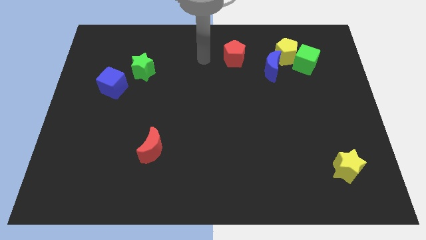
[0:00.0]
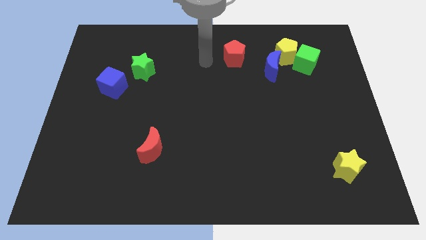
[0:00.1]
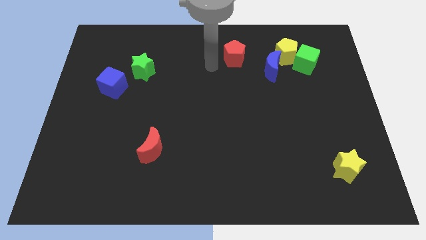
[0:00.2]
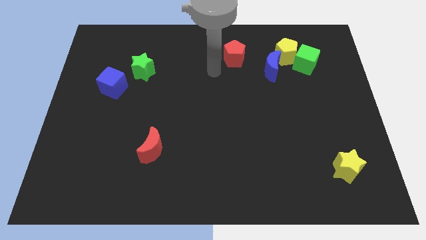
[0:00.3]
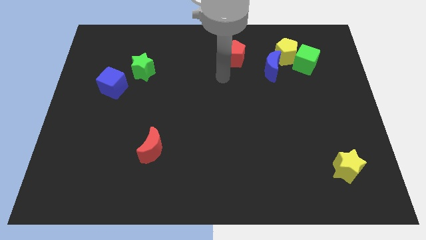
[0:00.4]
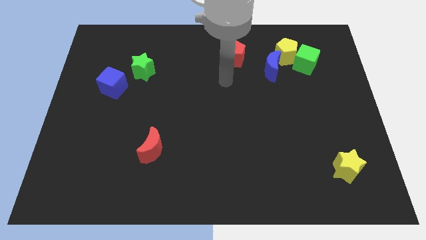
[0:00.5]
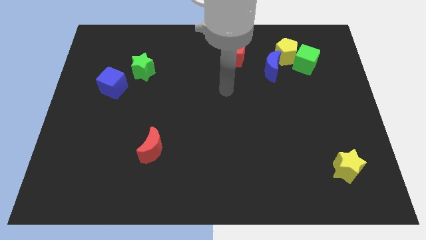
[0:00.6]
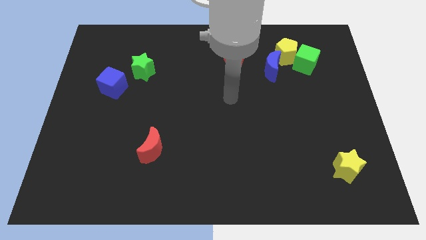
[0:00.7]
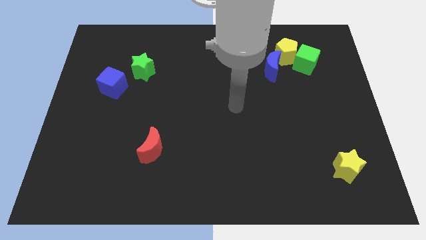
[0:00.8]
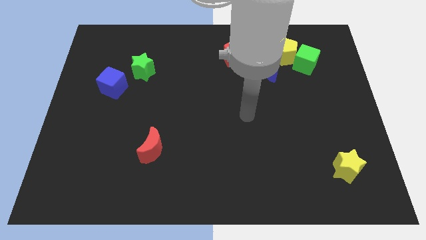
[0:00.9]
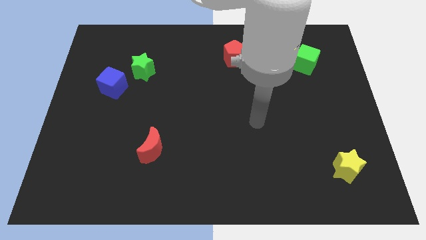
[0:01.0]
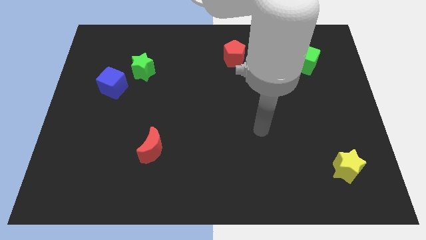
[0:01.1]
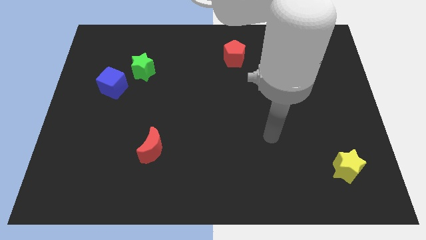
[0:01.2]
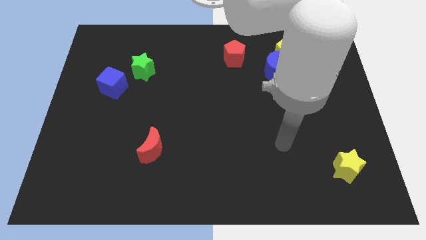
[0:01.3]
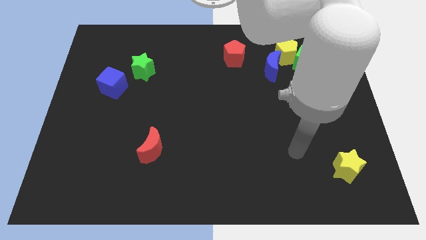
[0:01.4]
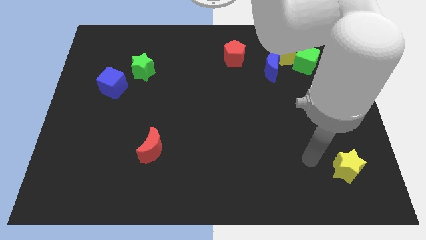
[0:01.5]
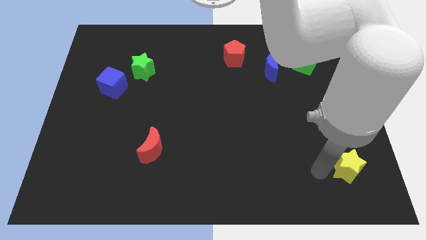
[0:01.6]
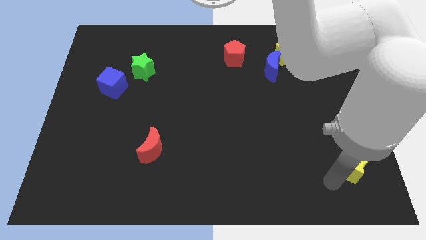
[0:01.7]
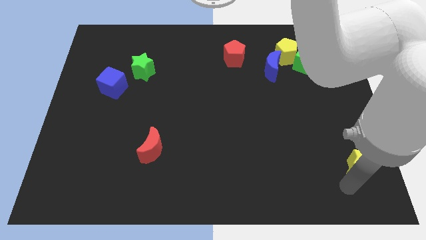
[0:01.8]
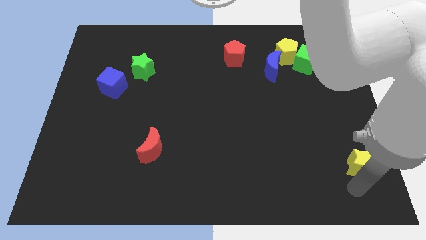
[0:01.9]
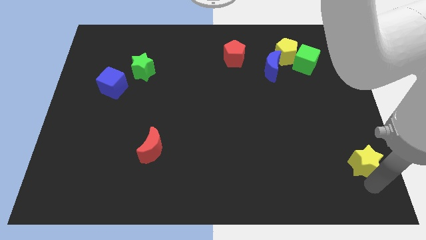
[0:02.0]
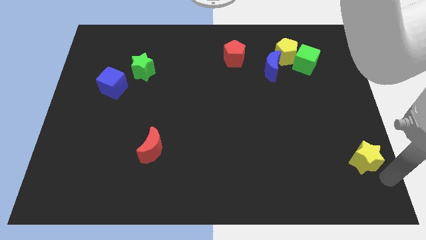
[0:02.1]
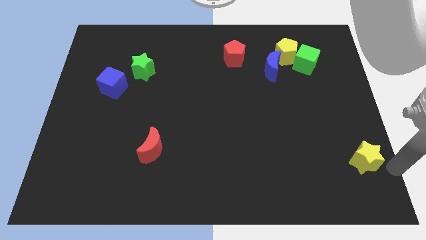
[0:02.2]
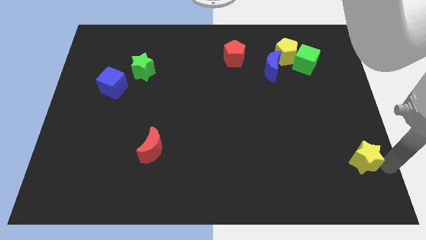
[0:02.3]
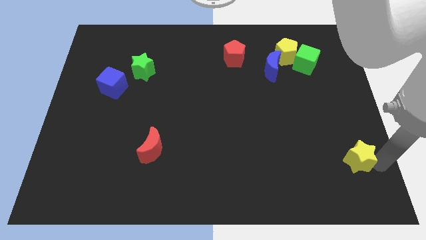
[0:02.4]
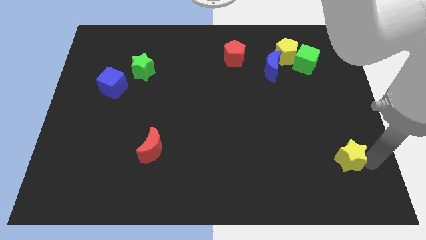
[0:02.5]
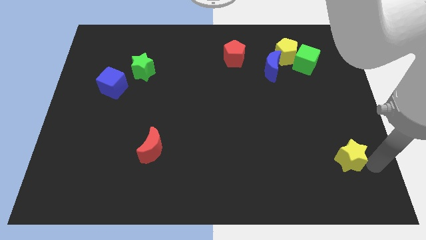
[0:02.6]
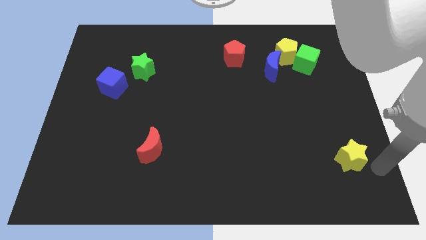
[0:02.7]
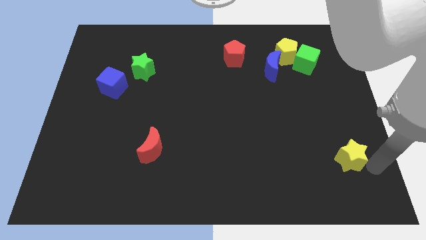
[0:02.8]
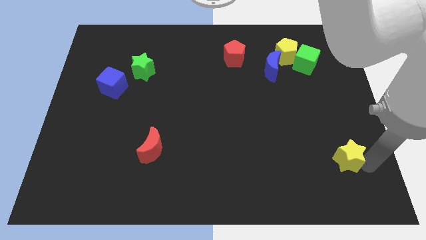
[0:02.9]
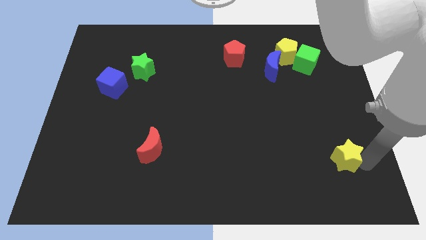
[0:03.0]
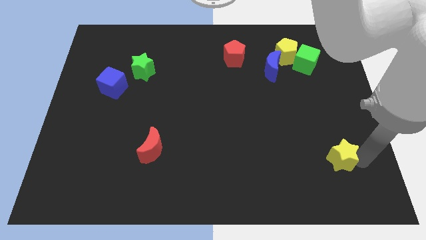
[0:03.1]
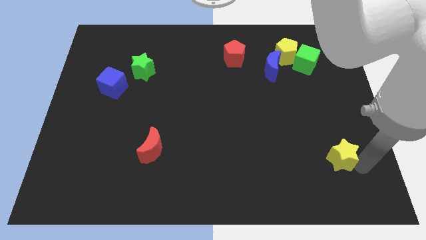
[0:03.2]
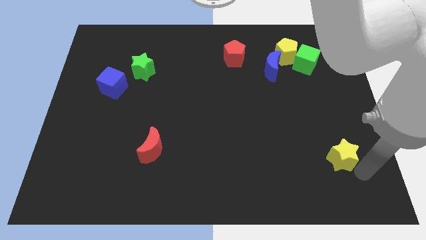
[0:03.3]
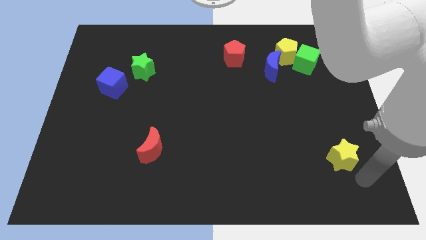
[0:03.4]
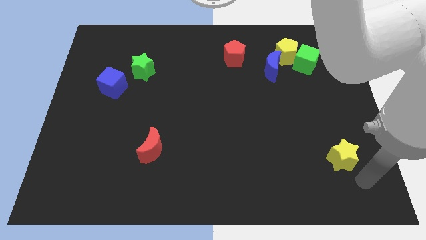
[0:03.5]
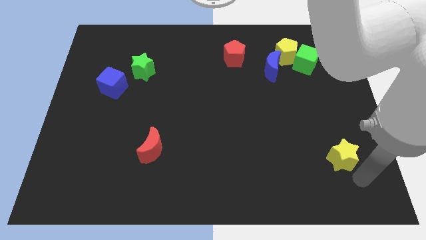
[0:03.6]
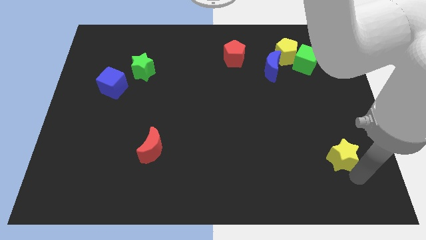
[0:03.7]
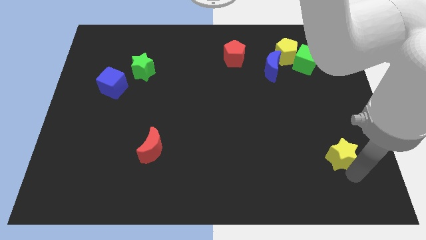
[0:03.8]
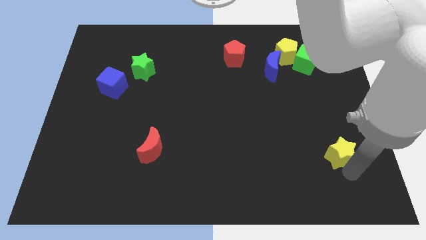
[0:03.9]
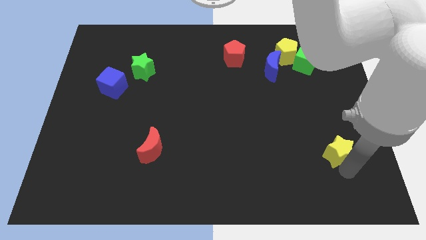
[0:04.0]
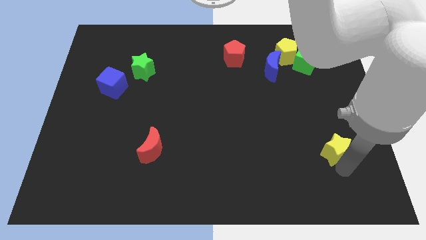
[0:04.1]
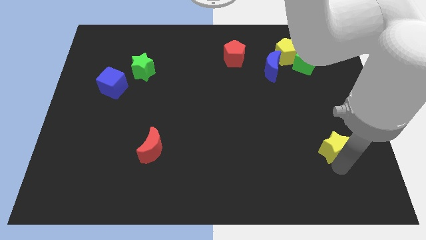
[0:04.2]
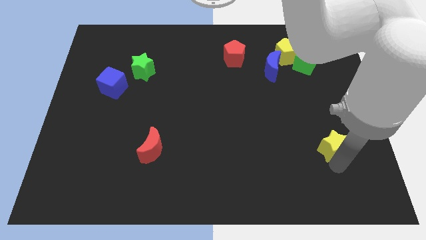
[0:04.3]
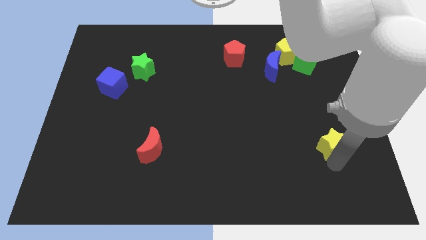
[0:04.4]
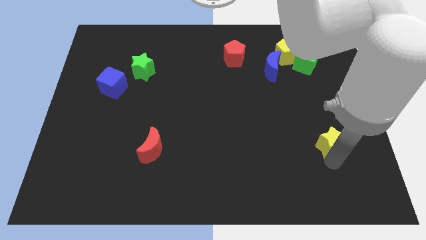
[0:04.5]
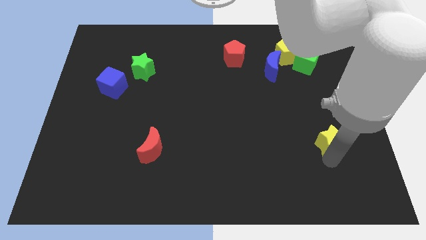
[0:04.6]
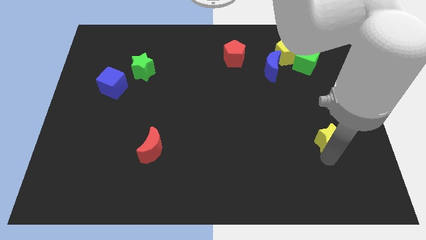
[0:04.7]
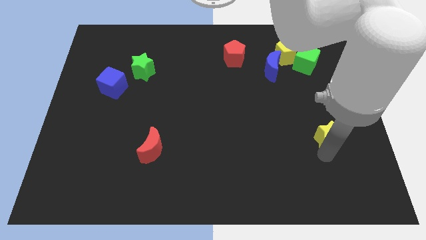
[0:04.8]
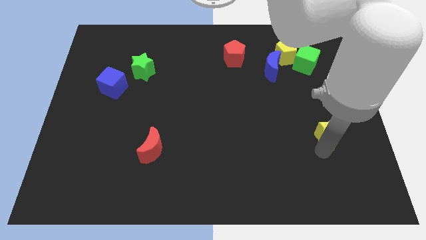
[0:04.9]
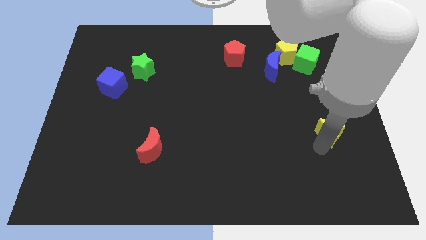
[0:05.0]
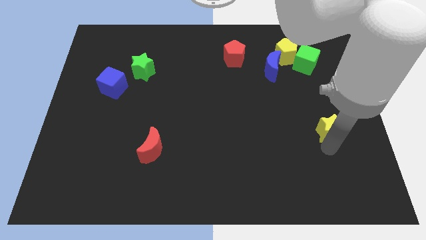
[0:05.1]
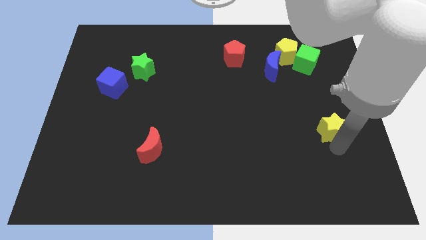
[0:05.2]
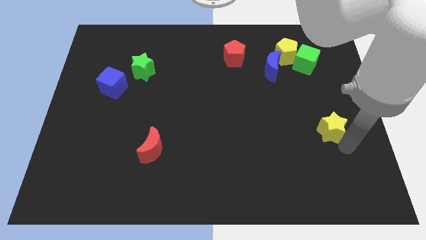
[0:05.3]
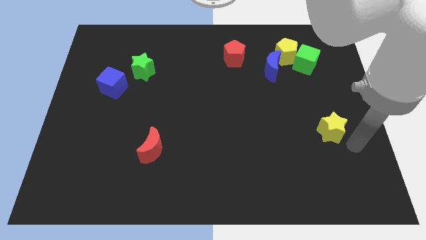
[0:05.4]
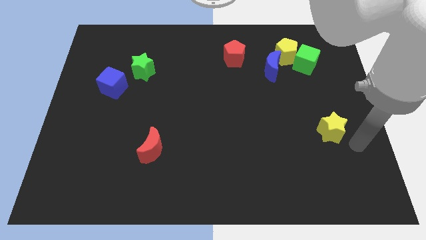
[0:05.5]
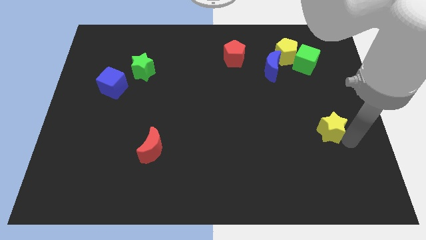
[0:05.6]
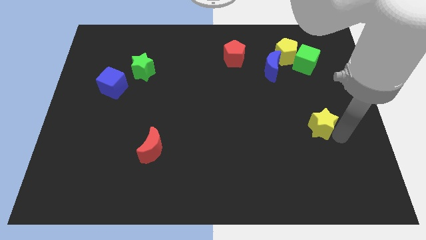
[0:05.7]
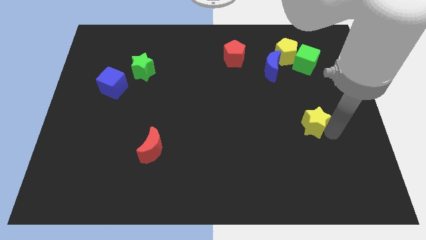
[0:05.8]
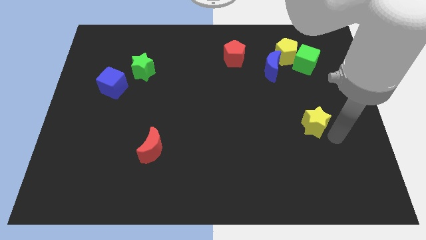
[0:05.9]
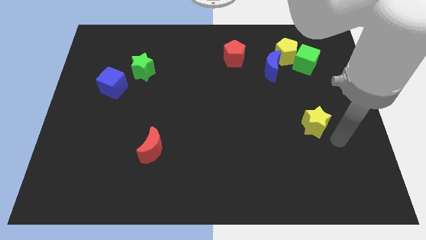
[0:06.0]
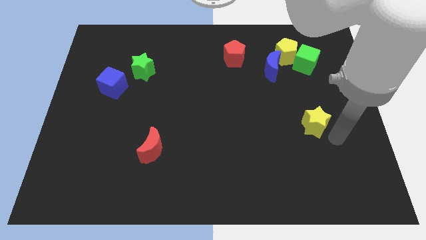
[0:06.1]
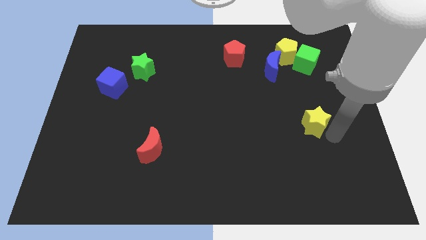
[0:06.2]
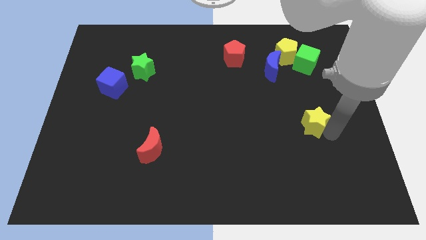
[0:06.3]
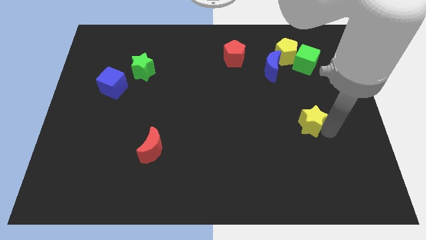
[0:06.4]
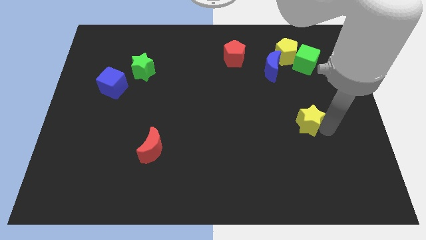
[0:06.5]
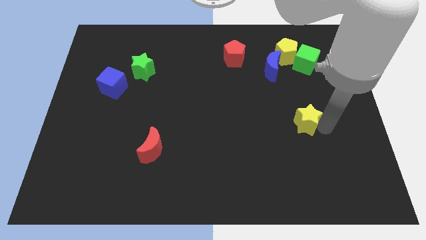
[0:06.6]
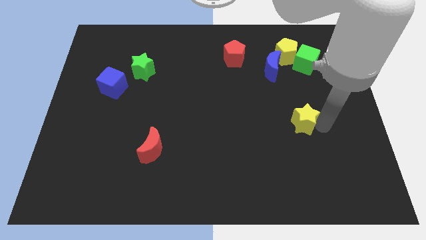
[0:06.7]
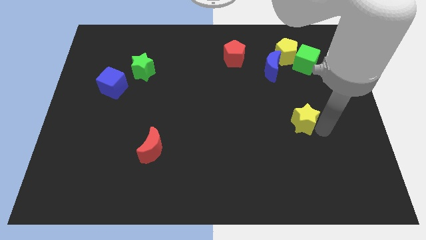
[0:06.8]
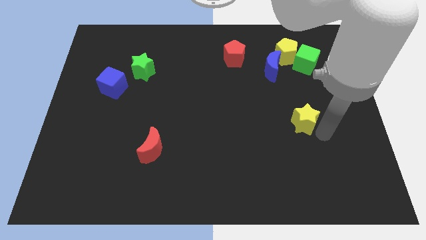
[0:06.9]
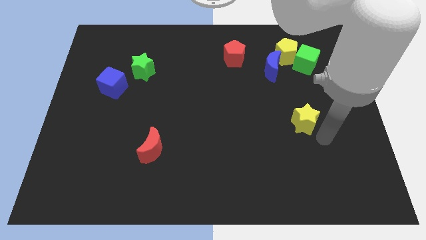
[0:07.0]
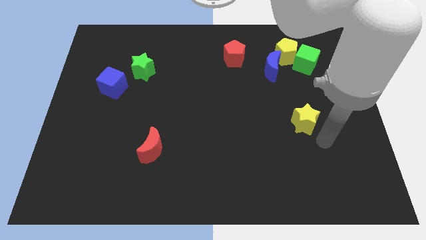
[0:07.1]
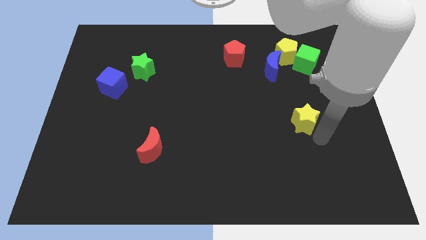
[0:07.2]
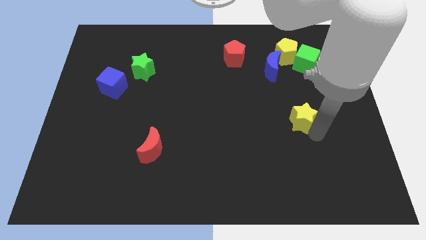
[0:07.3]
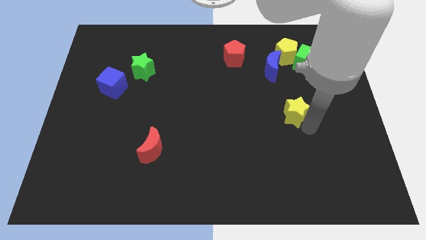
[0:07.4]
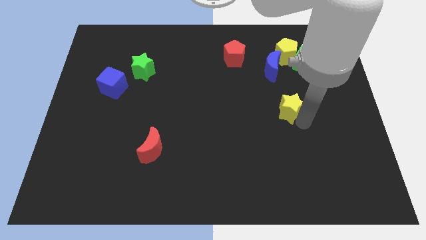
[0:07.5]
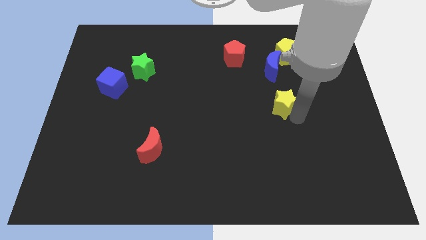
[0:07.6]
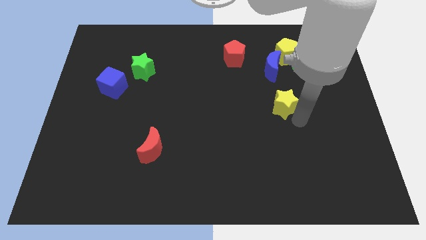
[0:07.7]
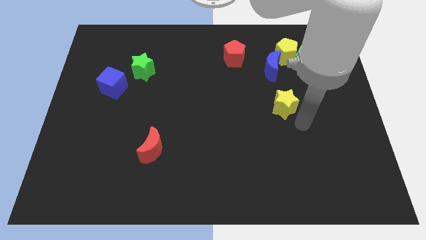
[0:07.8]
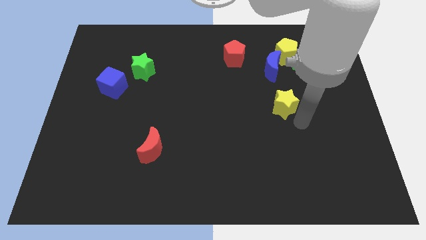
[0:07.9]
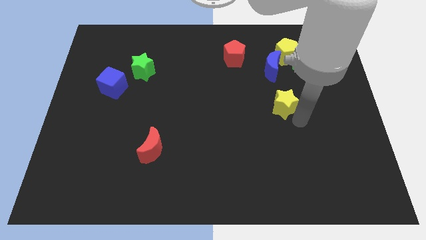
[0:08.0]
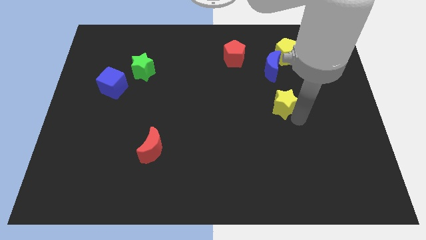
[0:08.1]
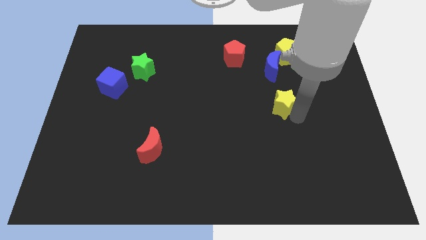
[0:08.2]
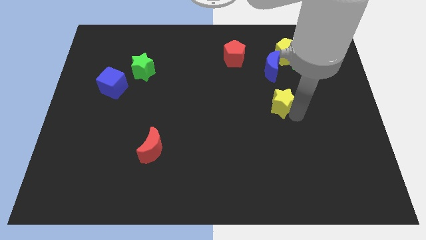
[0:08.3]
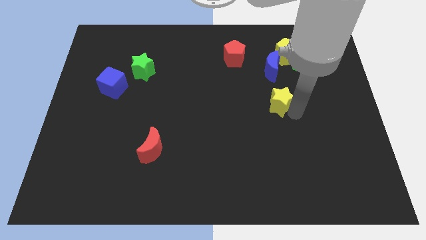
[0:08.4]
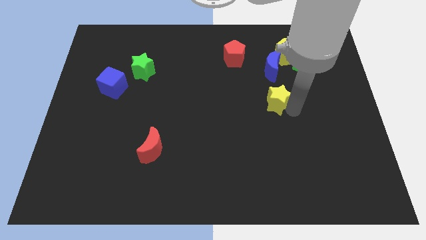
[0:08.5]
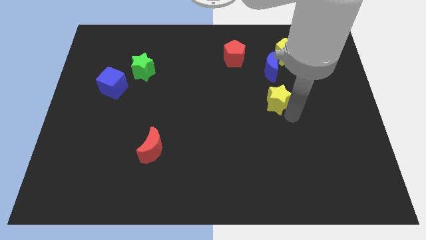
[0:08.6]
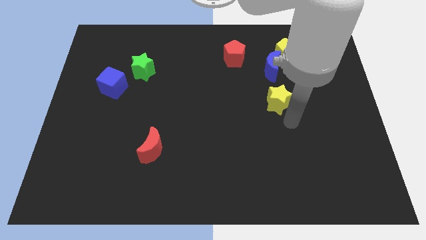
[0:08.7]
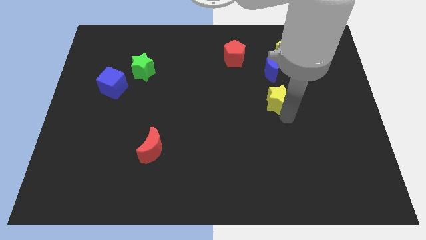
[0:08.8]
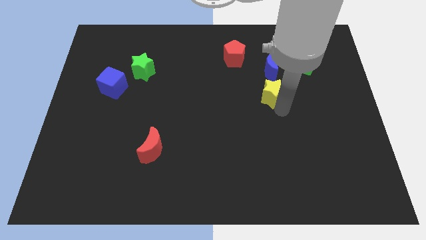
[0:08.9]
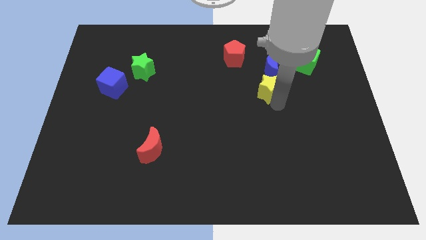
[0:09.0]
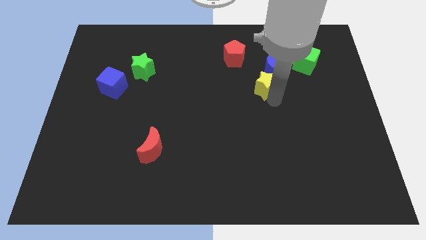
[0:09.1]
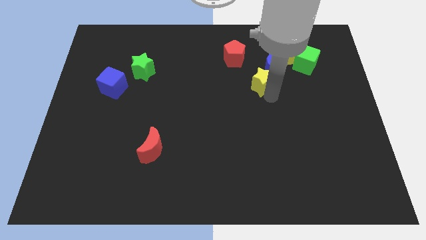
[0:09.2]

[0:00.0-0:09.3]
push the yellow star to the bottom left of the yellow pentagon
